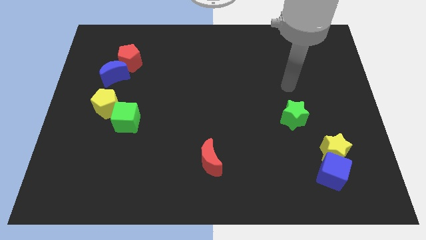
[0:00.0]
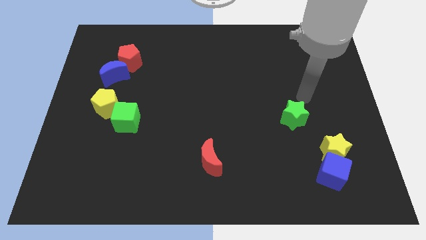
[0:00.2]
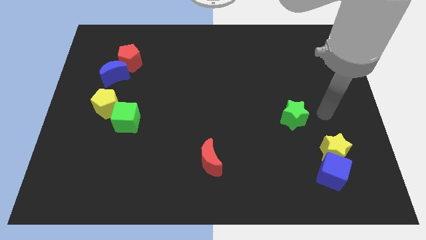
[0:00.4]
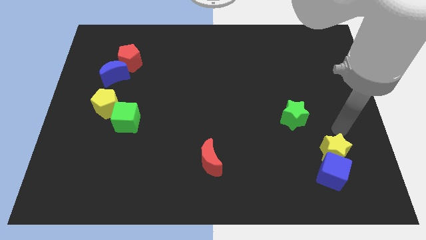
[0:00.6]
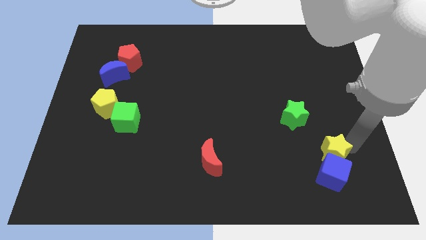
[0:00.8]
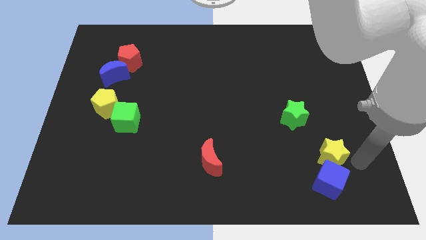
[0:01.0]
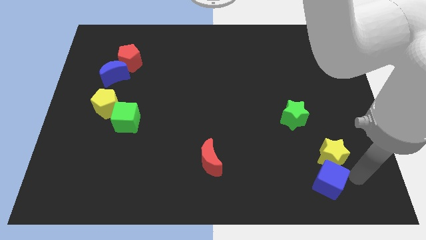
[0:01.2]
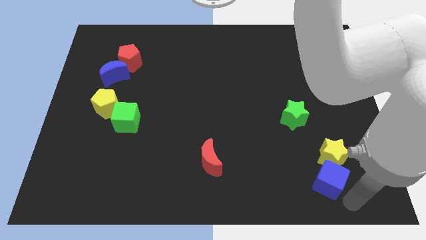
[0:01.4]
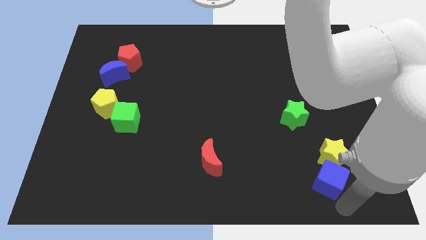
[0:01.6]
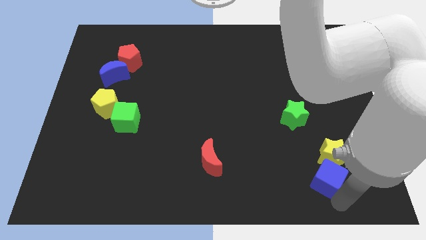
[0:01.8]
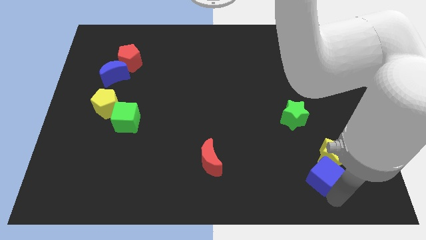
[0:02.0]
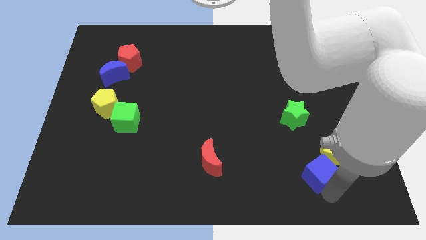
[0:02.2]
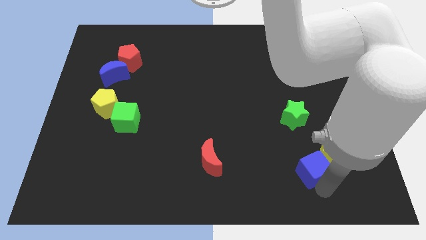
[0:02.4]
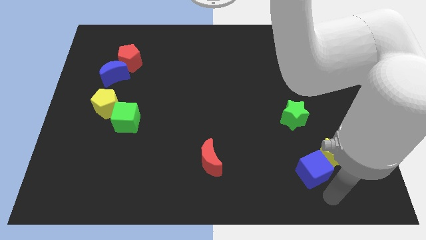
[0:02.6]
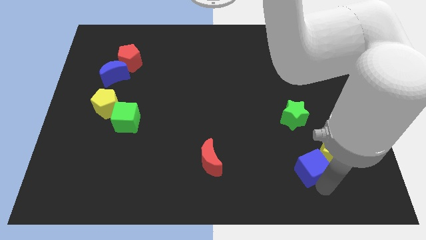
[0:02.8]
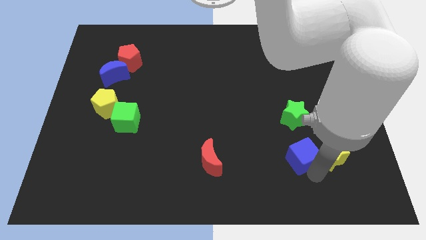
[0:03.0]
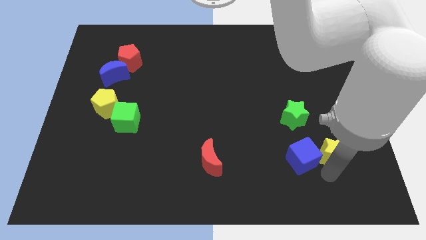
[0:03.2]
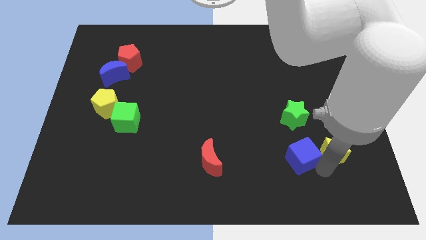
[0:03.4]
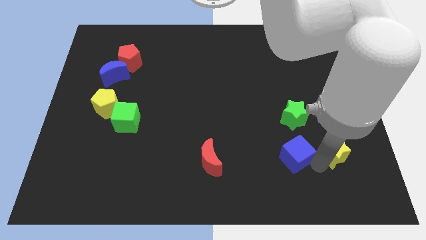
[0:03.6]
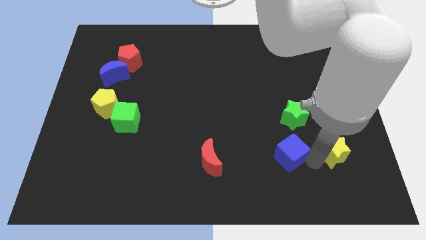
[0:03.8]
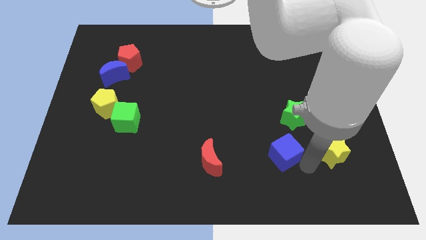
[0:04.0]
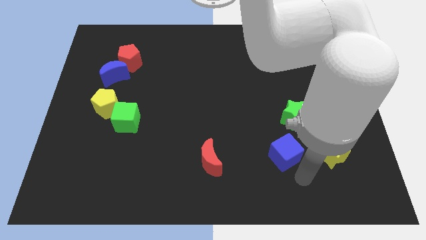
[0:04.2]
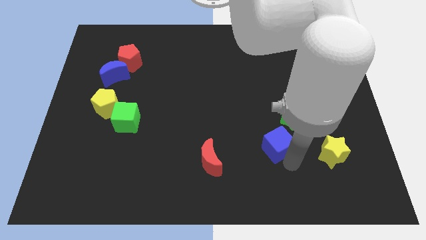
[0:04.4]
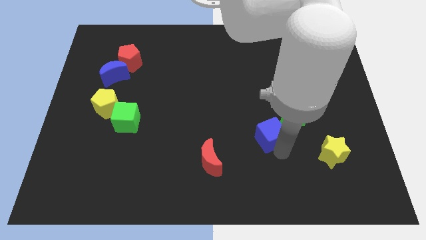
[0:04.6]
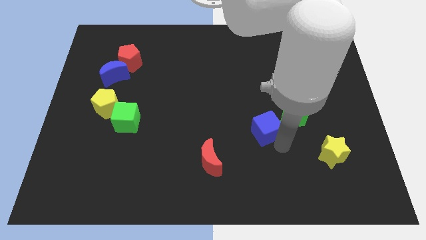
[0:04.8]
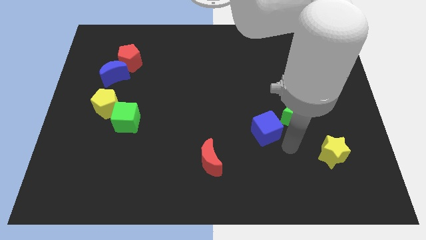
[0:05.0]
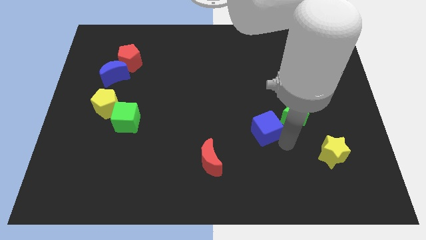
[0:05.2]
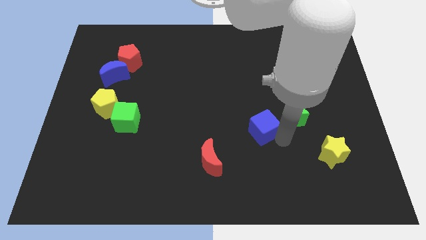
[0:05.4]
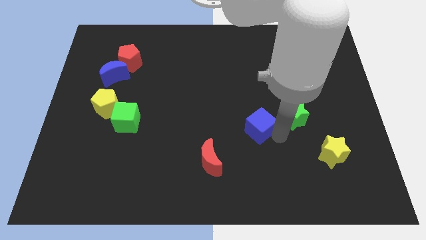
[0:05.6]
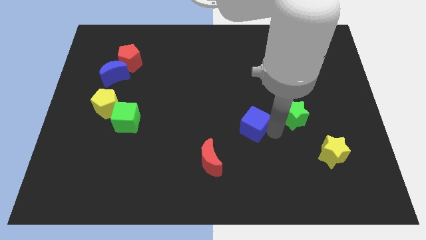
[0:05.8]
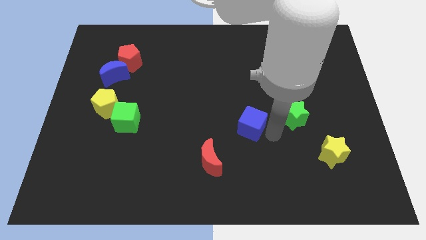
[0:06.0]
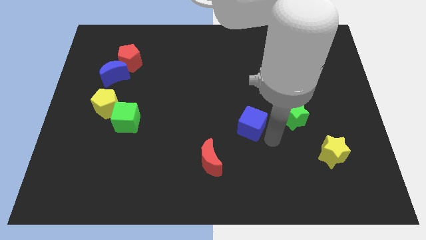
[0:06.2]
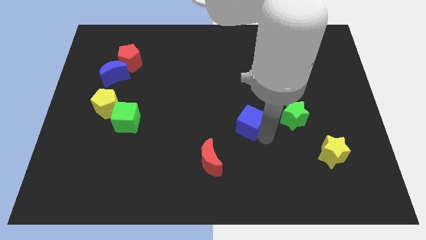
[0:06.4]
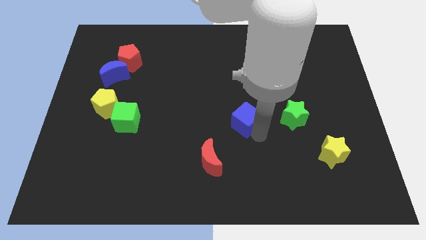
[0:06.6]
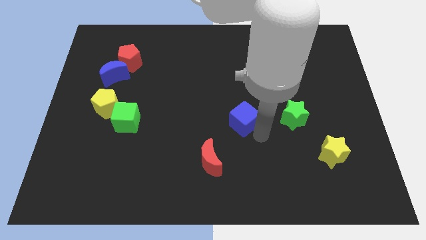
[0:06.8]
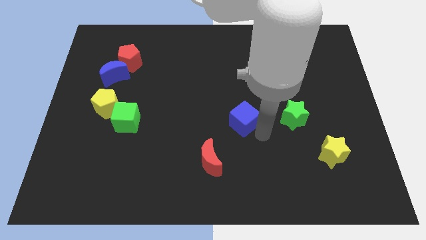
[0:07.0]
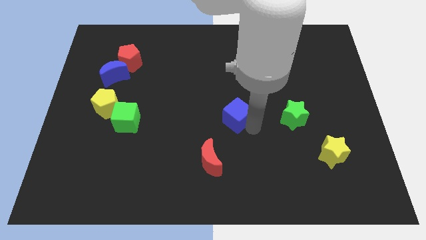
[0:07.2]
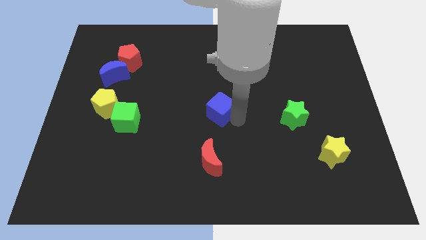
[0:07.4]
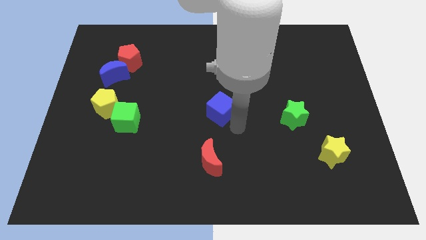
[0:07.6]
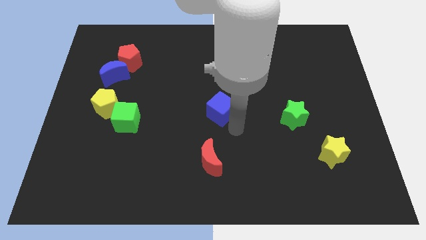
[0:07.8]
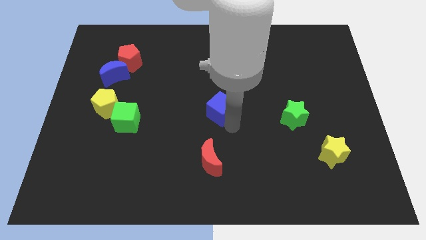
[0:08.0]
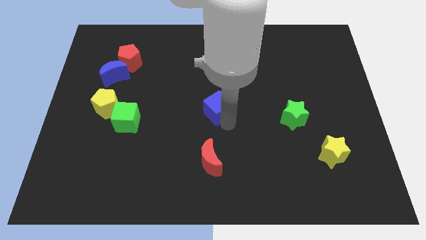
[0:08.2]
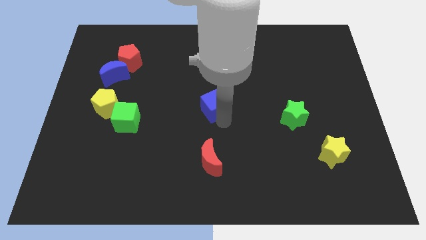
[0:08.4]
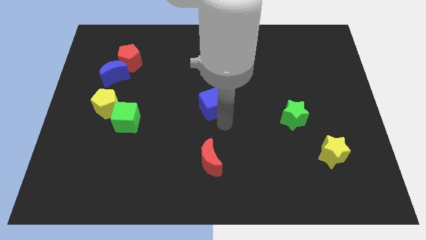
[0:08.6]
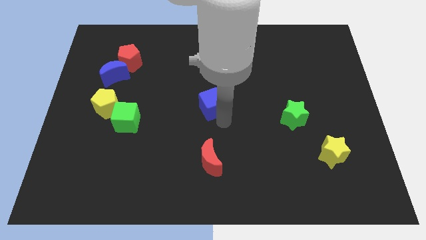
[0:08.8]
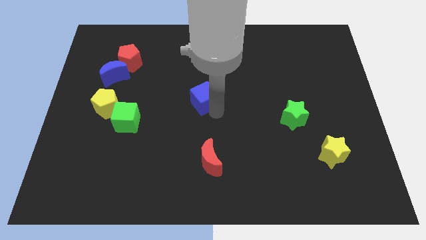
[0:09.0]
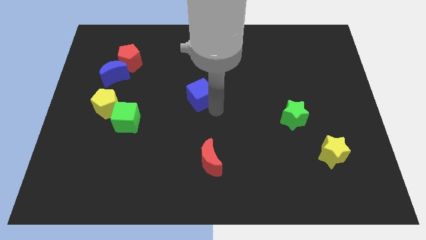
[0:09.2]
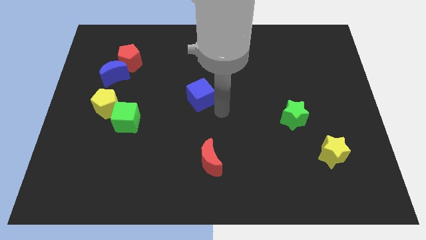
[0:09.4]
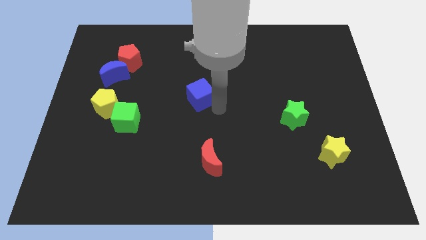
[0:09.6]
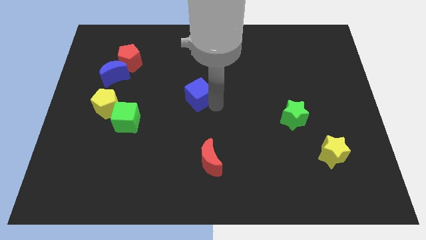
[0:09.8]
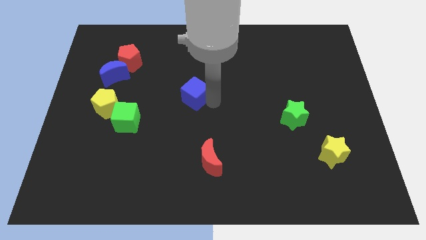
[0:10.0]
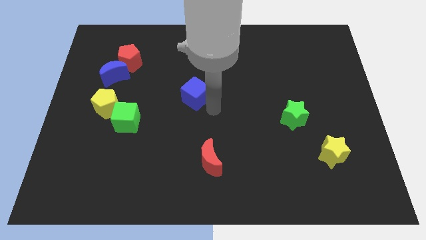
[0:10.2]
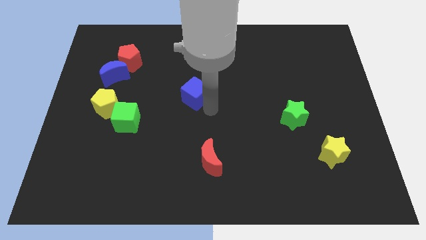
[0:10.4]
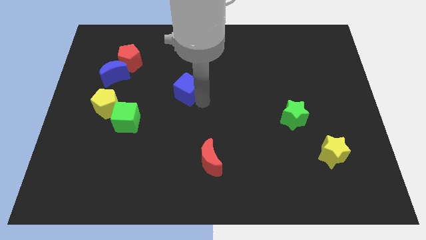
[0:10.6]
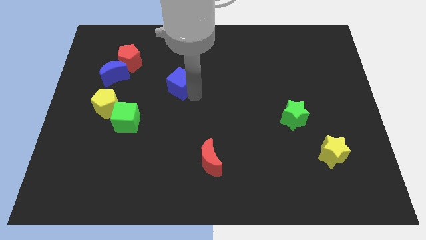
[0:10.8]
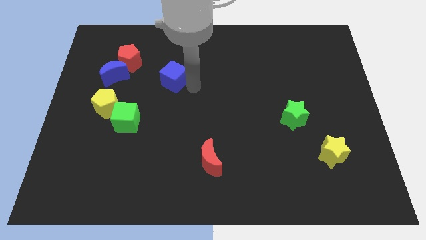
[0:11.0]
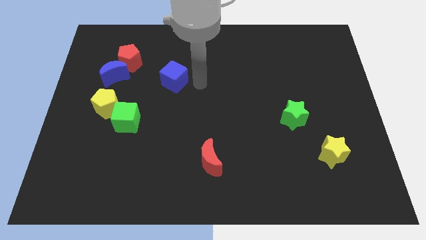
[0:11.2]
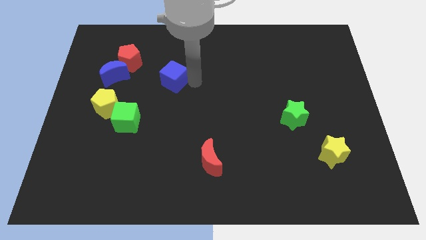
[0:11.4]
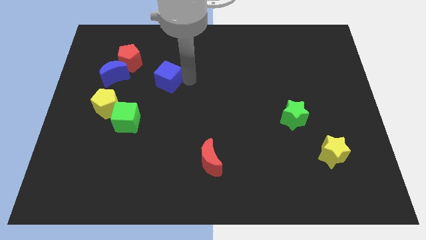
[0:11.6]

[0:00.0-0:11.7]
slide the blue cube to the bottom right of the red pentagon

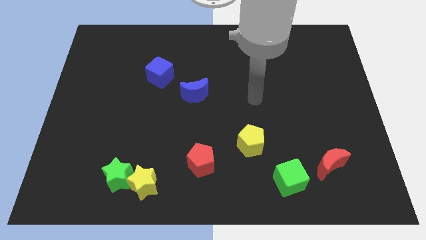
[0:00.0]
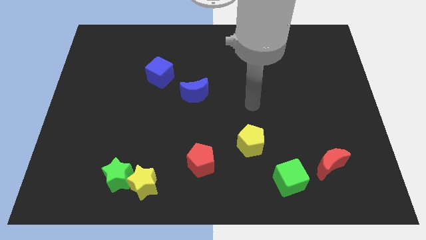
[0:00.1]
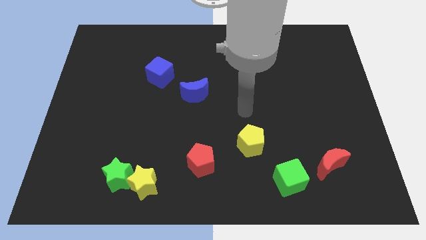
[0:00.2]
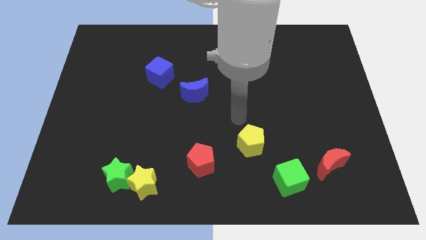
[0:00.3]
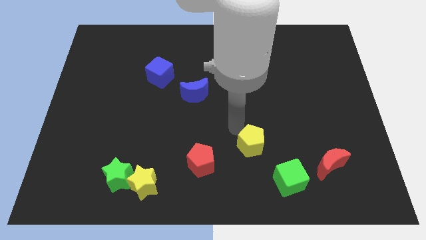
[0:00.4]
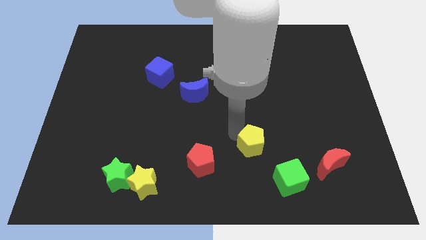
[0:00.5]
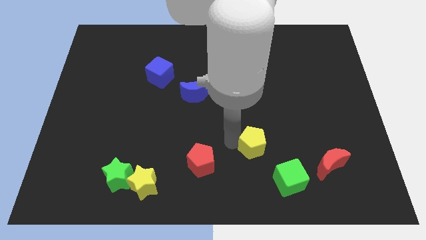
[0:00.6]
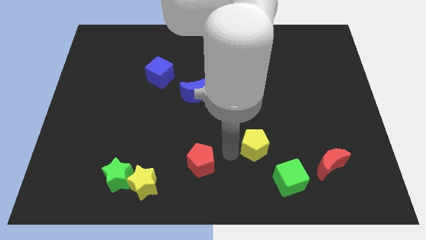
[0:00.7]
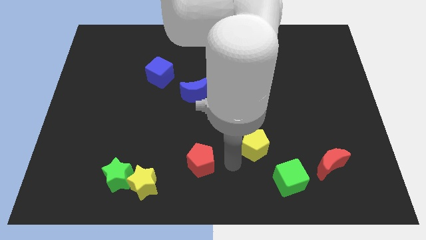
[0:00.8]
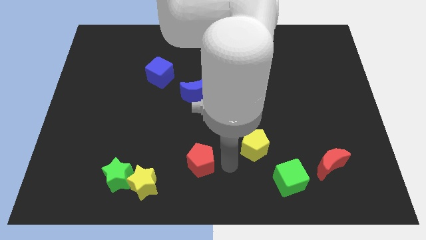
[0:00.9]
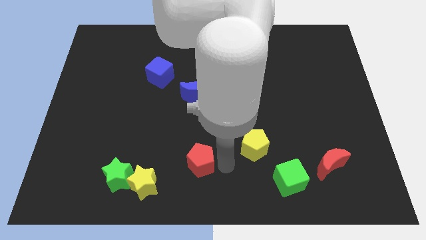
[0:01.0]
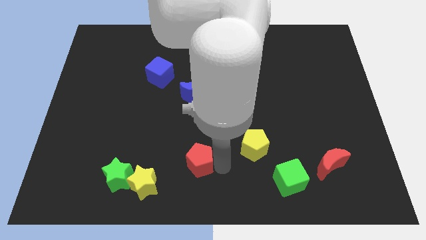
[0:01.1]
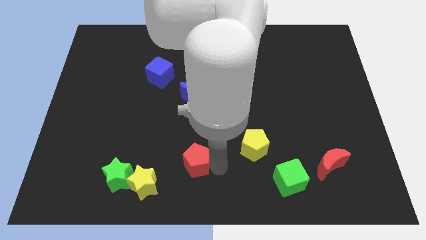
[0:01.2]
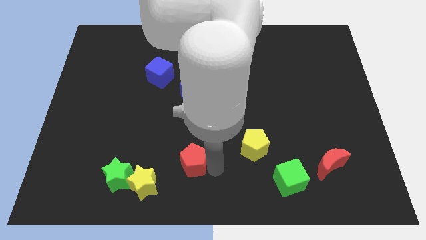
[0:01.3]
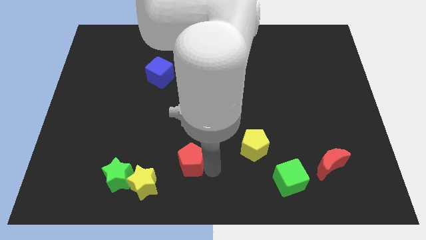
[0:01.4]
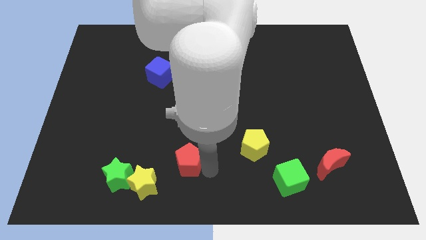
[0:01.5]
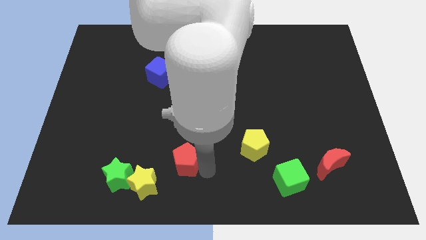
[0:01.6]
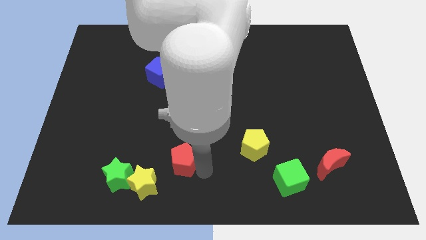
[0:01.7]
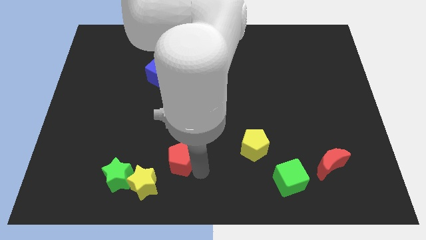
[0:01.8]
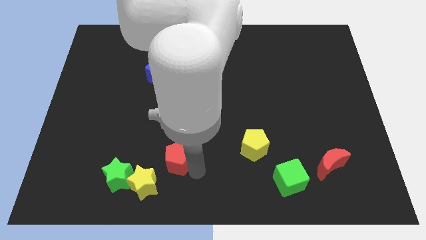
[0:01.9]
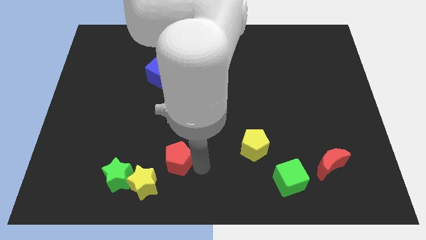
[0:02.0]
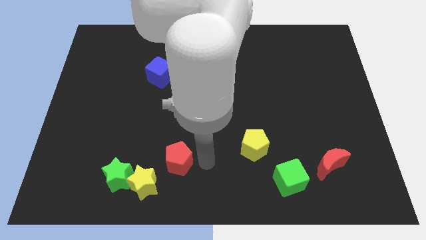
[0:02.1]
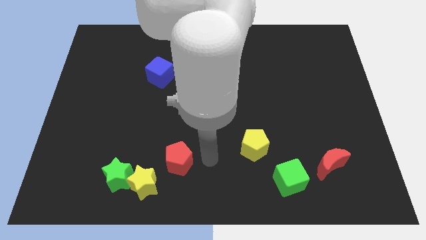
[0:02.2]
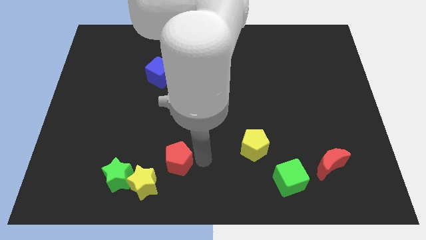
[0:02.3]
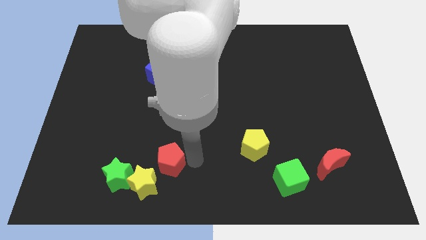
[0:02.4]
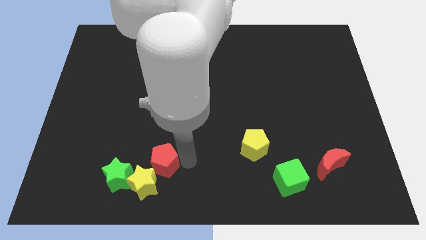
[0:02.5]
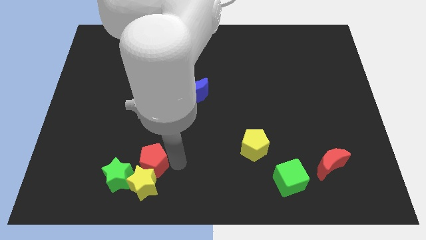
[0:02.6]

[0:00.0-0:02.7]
push the red pentagon to the top left side of the yellow star
